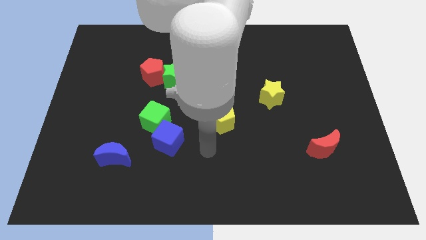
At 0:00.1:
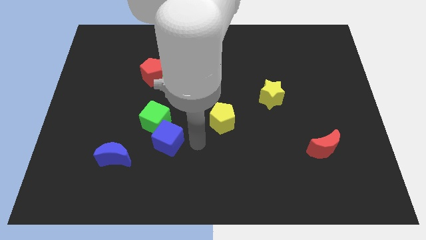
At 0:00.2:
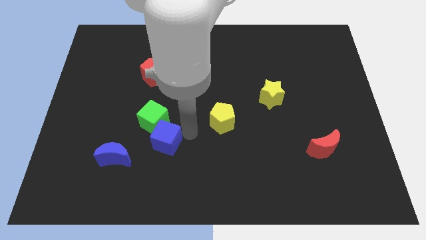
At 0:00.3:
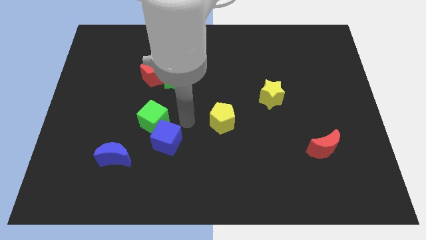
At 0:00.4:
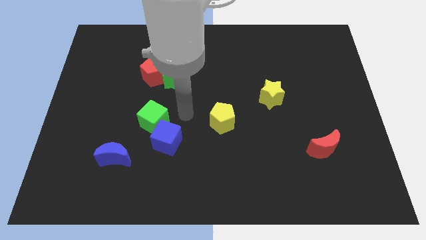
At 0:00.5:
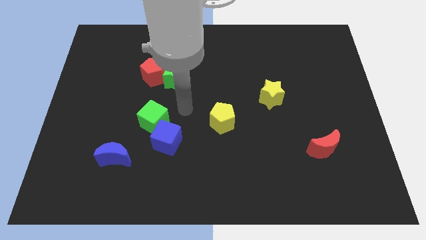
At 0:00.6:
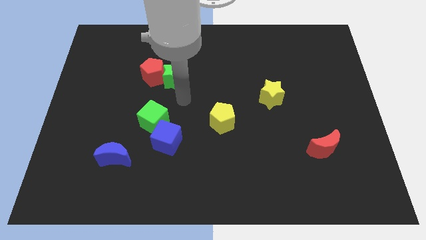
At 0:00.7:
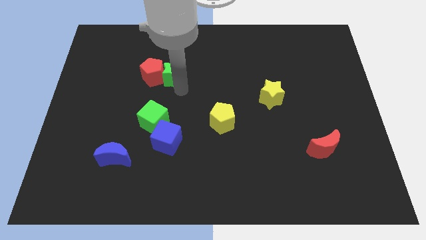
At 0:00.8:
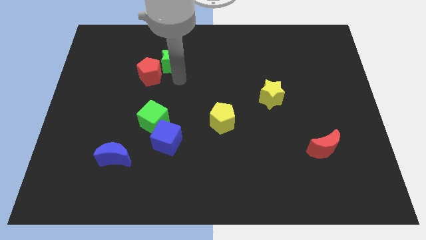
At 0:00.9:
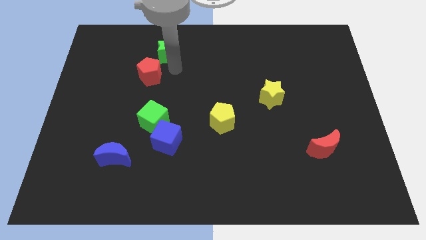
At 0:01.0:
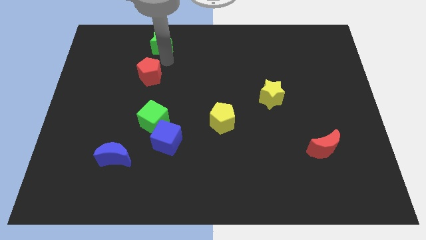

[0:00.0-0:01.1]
pull the red pentagon apart from the green star

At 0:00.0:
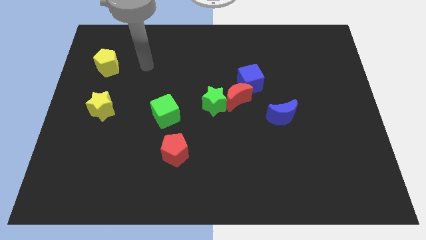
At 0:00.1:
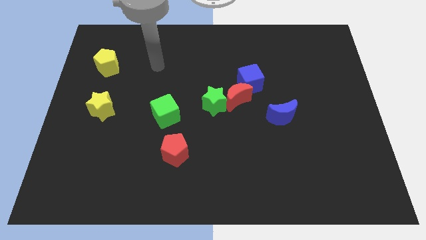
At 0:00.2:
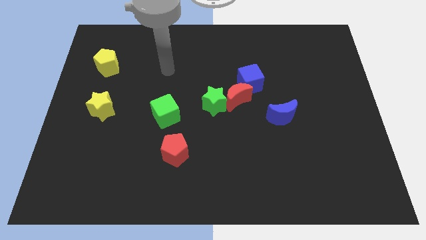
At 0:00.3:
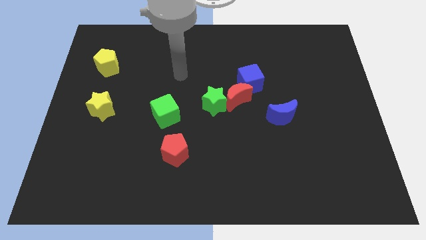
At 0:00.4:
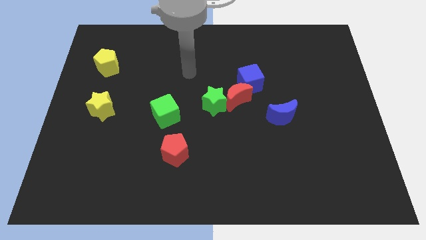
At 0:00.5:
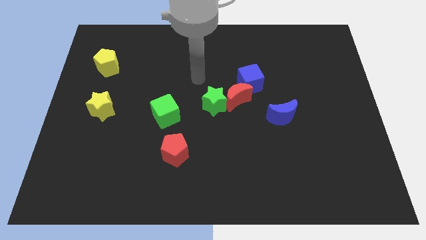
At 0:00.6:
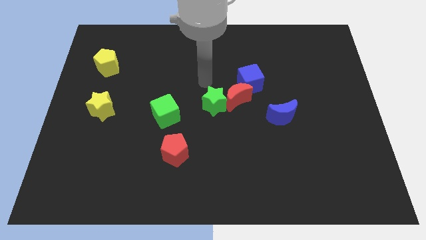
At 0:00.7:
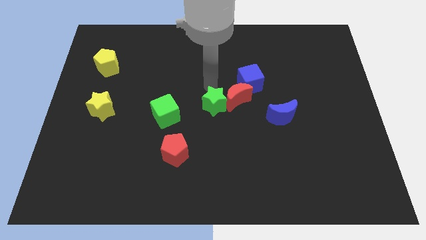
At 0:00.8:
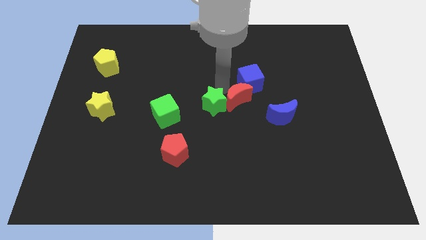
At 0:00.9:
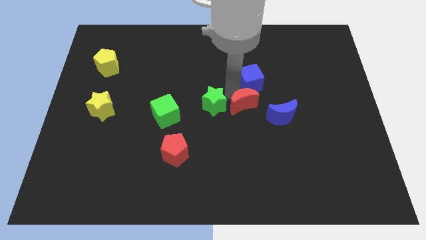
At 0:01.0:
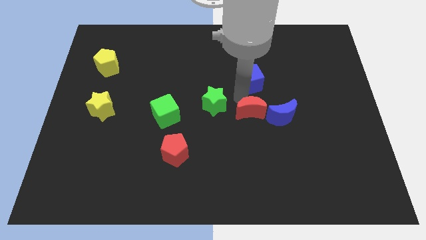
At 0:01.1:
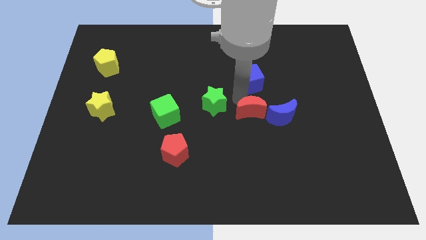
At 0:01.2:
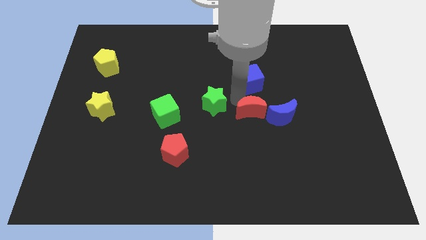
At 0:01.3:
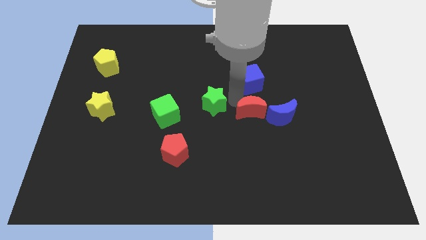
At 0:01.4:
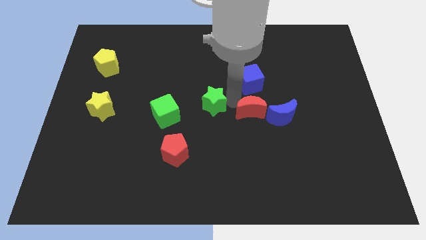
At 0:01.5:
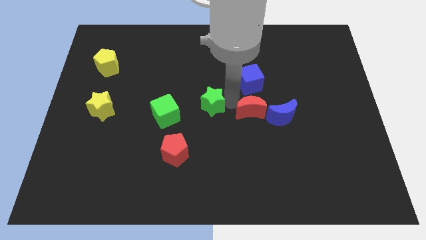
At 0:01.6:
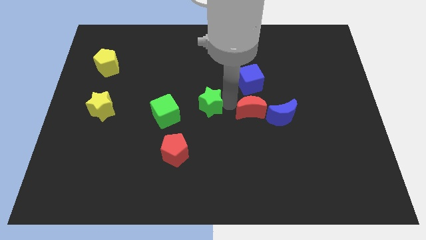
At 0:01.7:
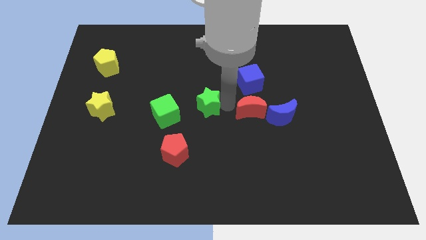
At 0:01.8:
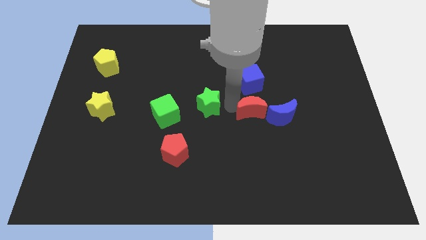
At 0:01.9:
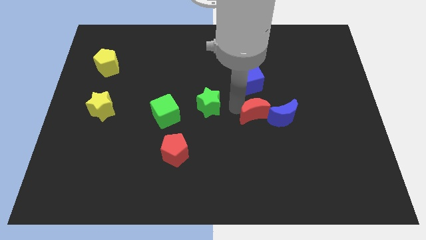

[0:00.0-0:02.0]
separate the green star from the red moon

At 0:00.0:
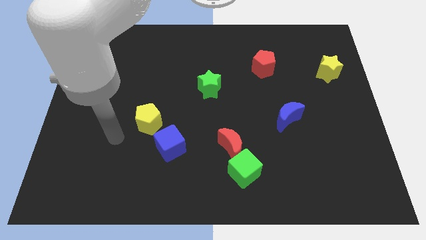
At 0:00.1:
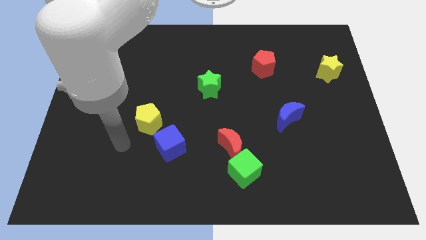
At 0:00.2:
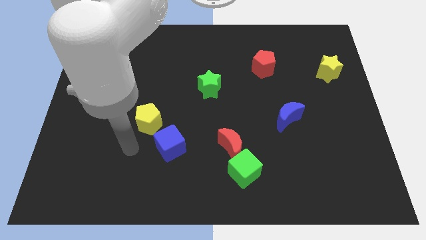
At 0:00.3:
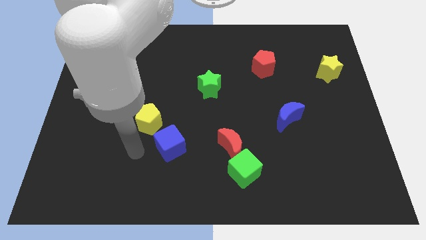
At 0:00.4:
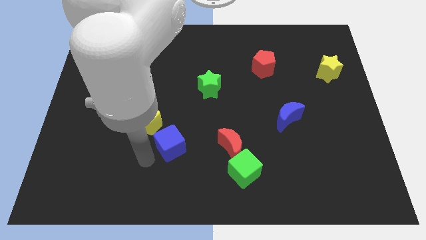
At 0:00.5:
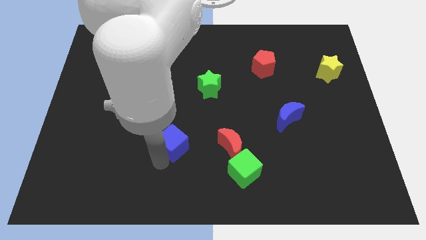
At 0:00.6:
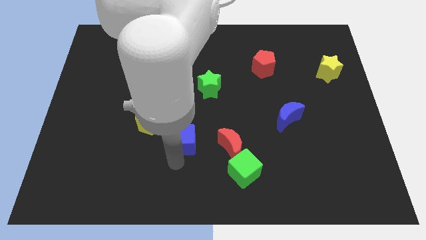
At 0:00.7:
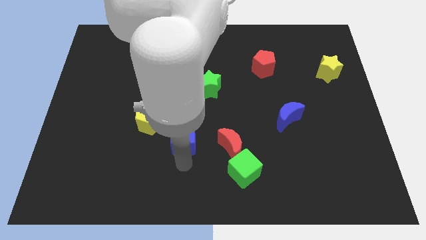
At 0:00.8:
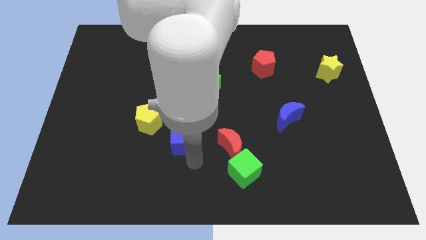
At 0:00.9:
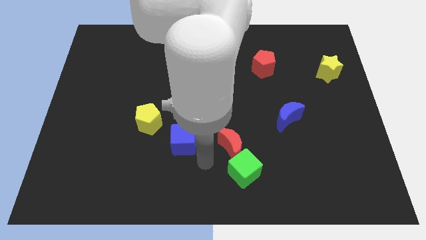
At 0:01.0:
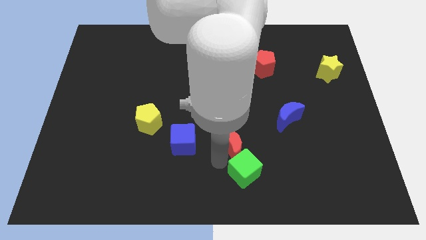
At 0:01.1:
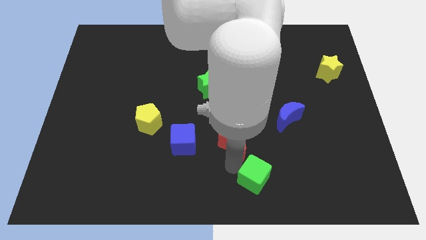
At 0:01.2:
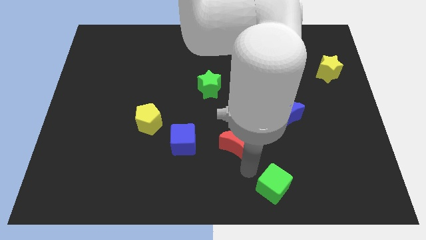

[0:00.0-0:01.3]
separate the red moon from the green cube

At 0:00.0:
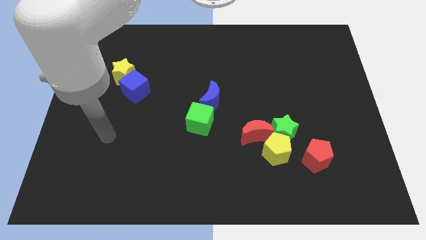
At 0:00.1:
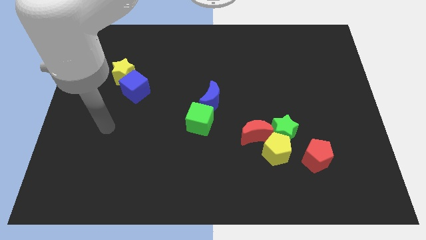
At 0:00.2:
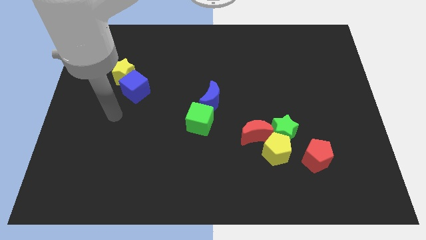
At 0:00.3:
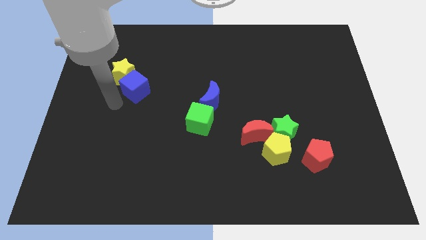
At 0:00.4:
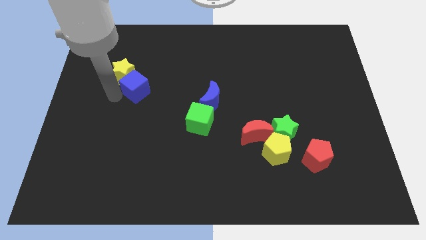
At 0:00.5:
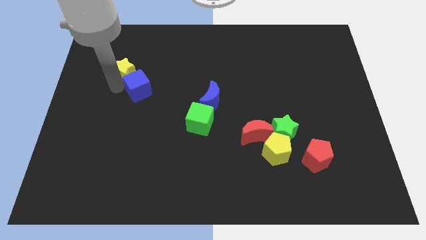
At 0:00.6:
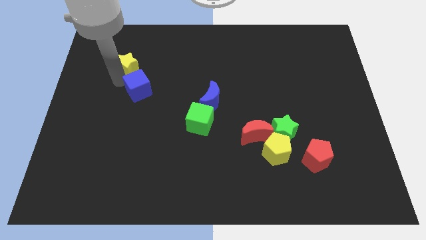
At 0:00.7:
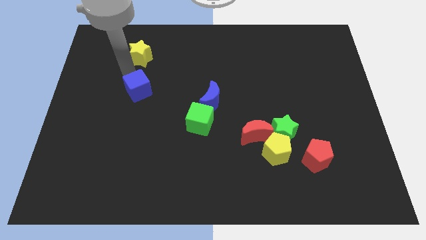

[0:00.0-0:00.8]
move the blue cube away from the yellow star

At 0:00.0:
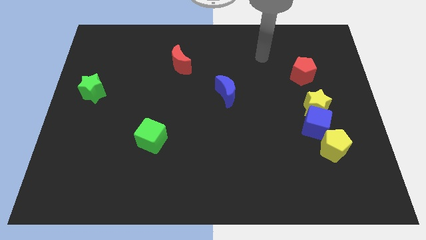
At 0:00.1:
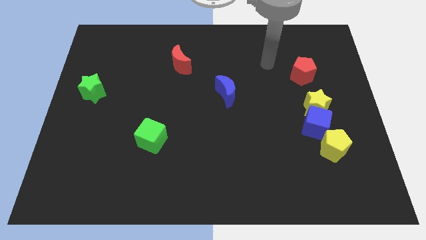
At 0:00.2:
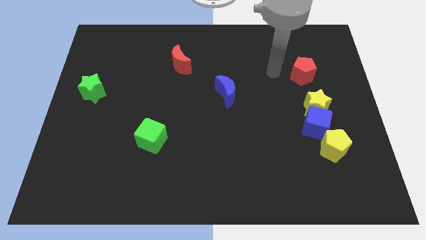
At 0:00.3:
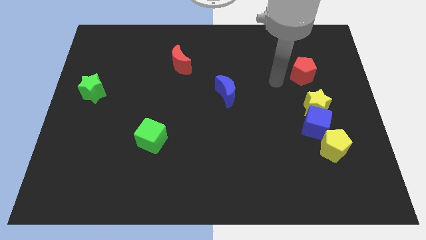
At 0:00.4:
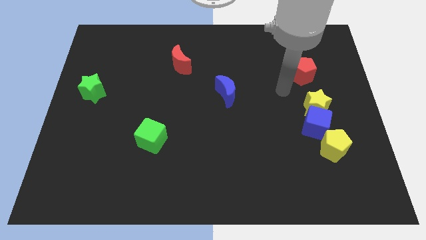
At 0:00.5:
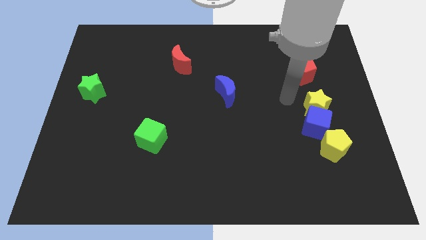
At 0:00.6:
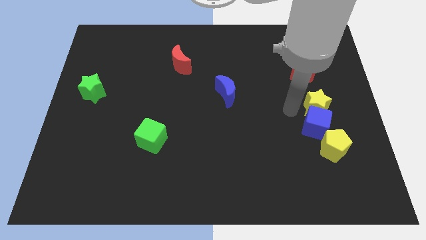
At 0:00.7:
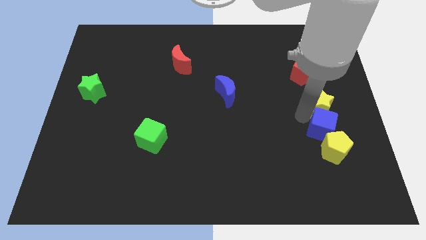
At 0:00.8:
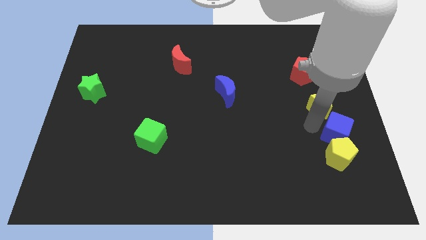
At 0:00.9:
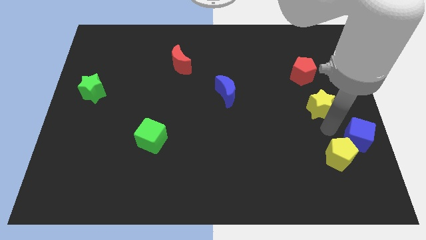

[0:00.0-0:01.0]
separate the yellow star from the blue cube

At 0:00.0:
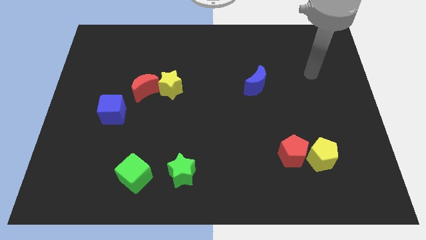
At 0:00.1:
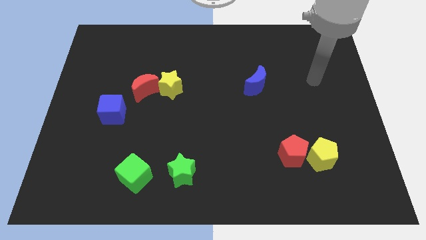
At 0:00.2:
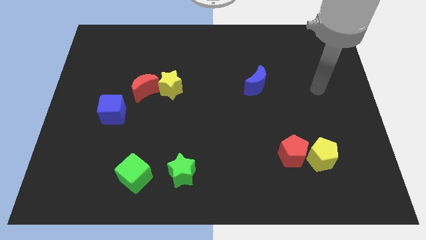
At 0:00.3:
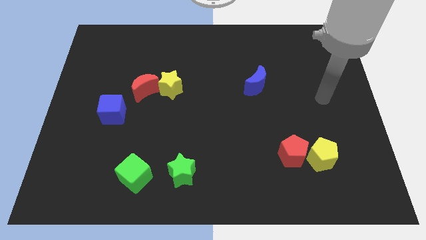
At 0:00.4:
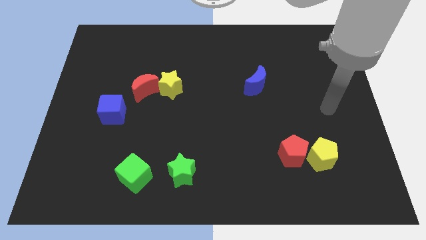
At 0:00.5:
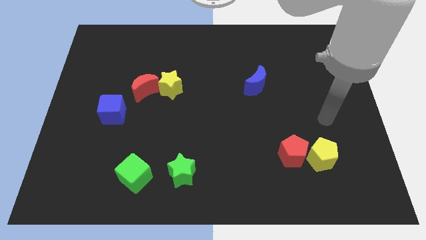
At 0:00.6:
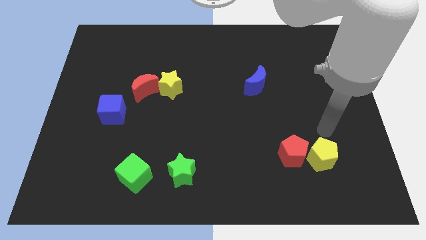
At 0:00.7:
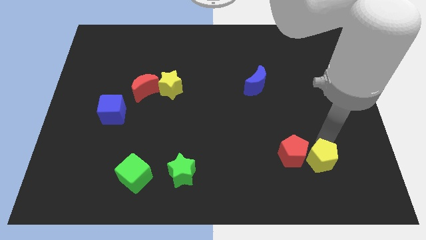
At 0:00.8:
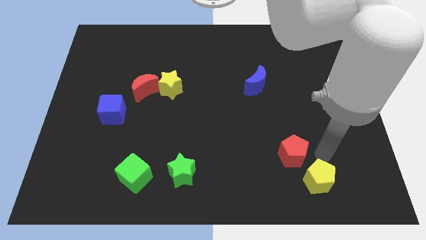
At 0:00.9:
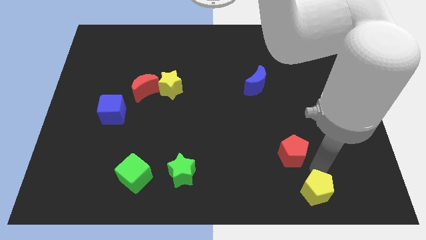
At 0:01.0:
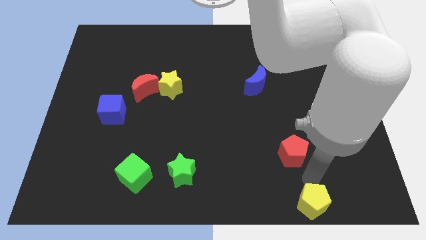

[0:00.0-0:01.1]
move the red pentagon away from the yellow pentagon

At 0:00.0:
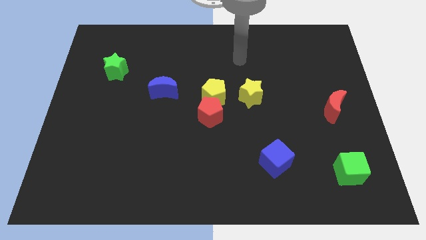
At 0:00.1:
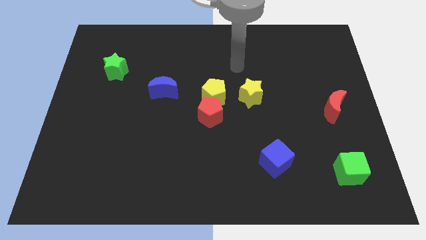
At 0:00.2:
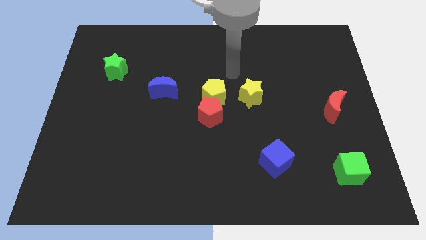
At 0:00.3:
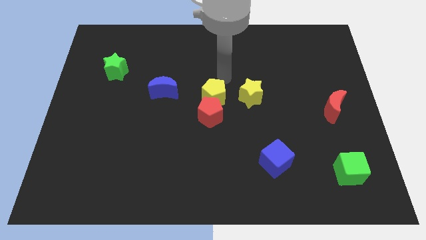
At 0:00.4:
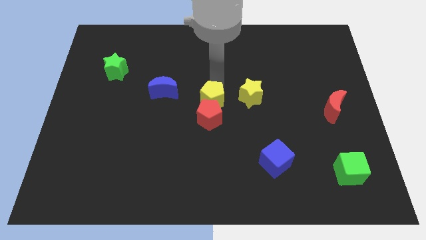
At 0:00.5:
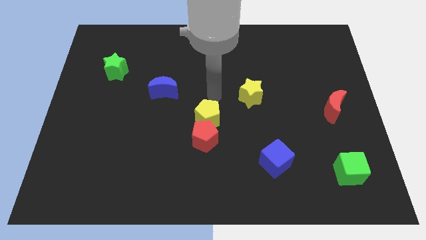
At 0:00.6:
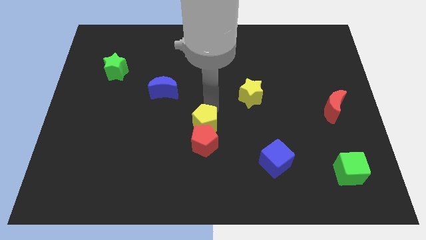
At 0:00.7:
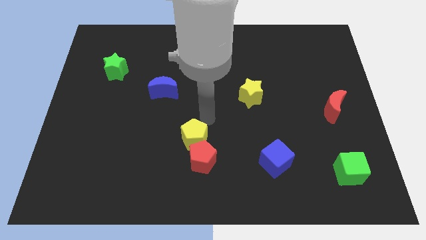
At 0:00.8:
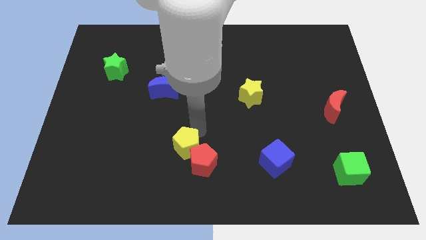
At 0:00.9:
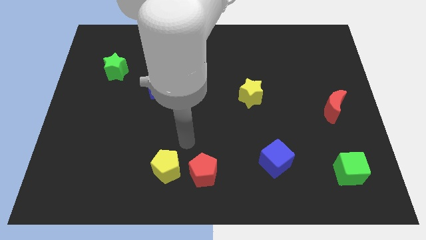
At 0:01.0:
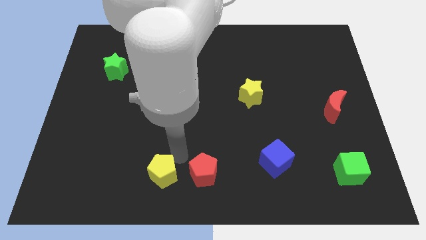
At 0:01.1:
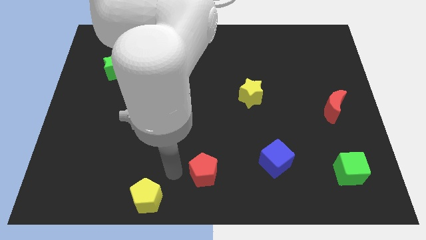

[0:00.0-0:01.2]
separate the red pentagon from the yellow pentagon

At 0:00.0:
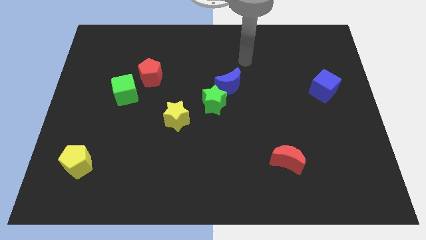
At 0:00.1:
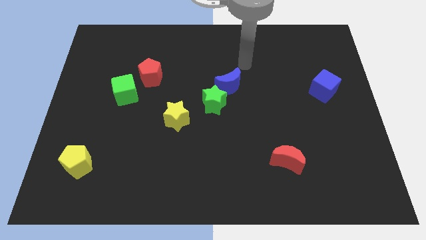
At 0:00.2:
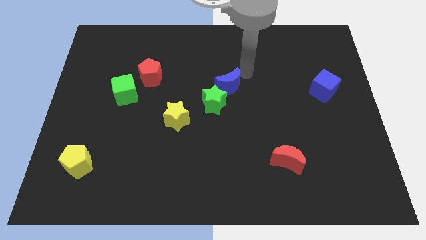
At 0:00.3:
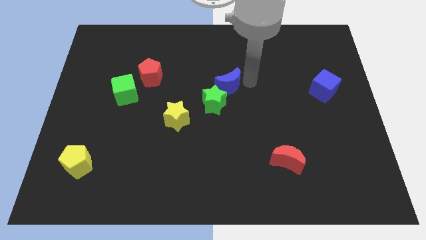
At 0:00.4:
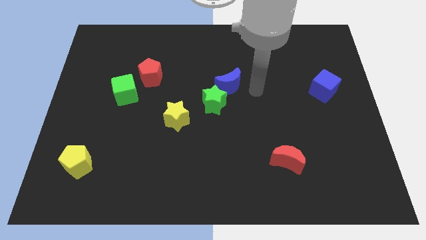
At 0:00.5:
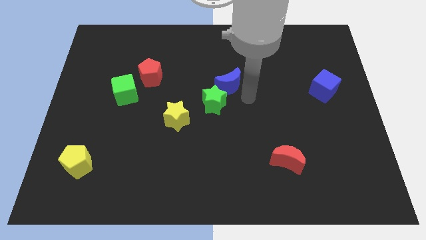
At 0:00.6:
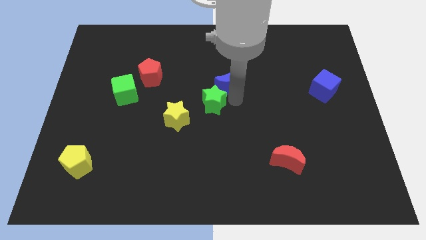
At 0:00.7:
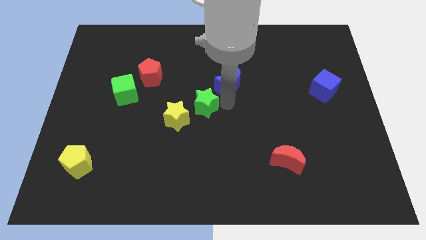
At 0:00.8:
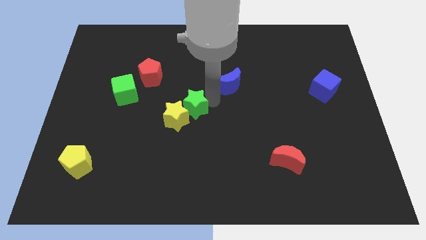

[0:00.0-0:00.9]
move the blue moon away from the green star

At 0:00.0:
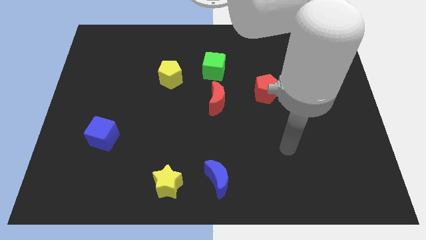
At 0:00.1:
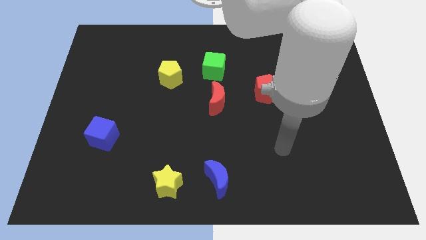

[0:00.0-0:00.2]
pull the blue moon apart from the yellow star
